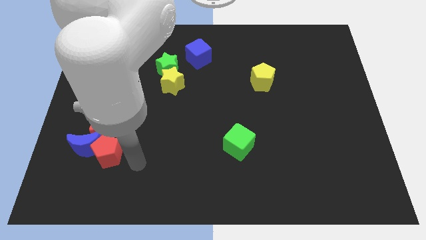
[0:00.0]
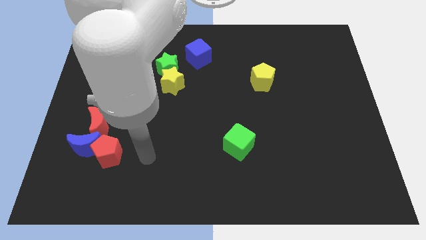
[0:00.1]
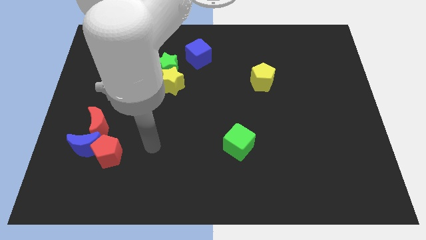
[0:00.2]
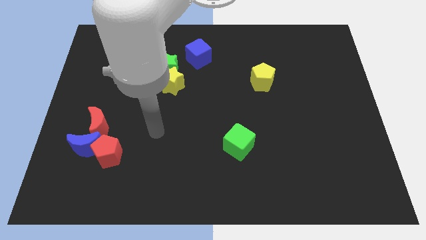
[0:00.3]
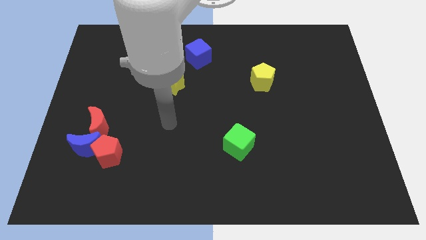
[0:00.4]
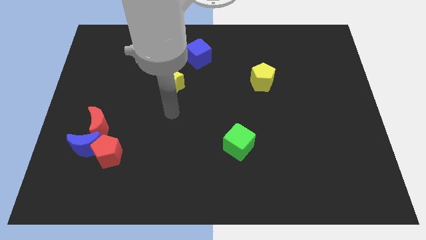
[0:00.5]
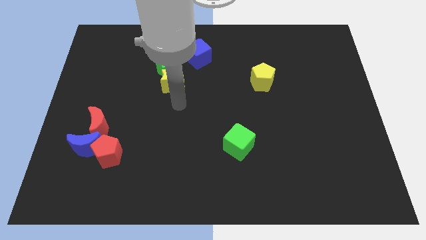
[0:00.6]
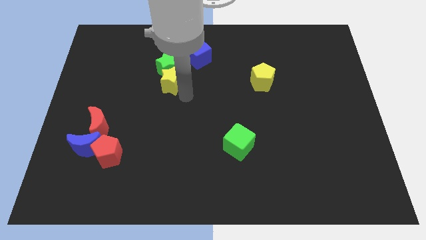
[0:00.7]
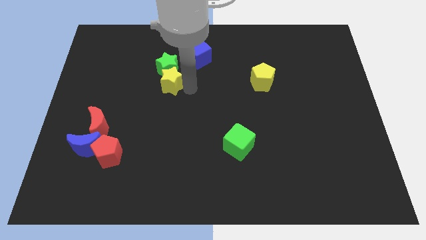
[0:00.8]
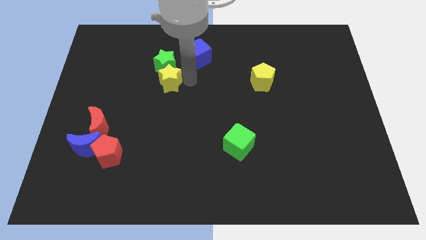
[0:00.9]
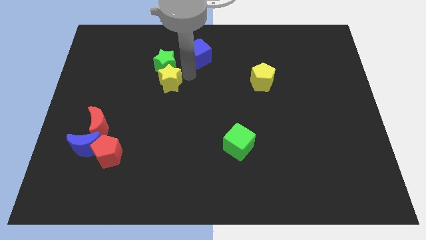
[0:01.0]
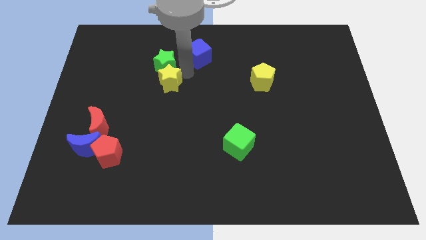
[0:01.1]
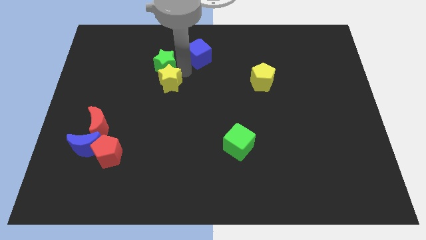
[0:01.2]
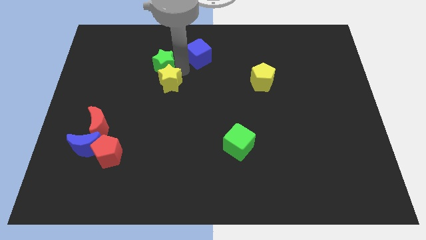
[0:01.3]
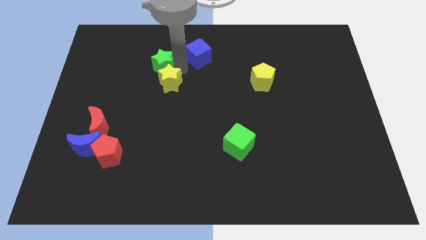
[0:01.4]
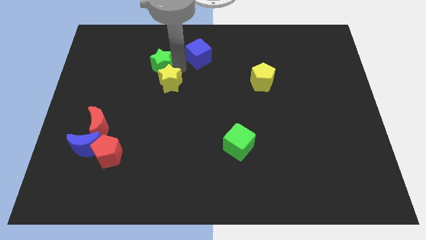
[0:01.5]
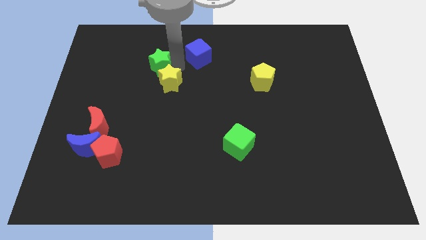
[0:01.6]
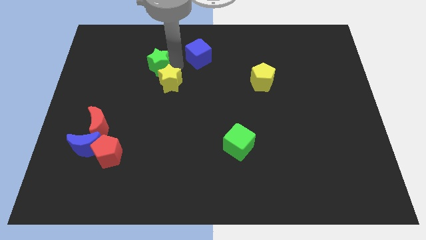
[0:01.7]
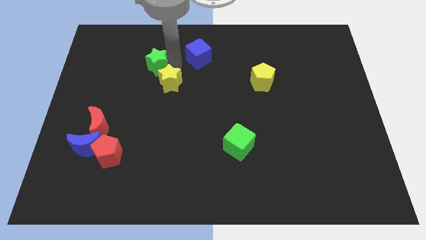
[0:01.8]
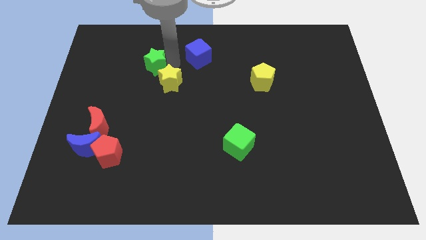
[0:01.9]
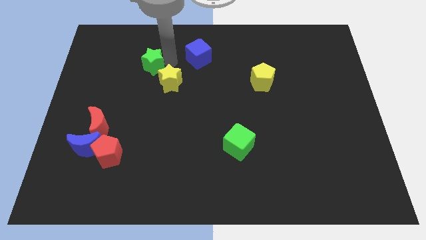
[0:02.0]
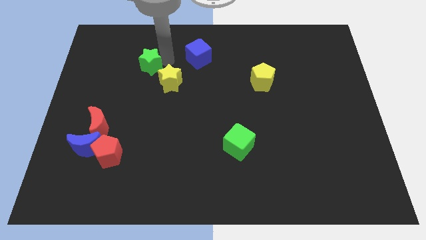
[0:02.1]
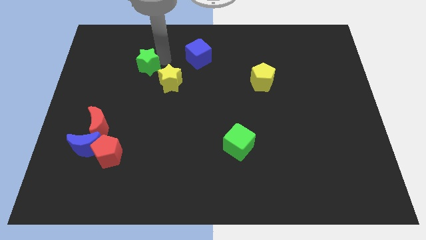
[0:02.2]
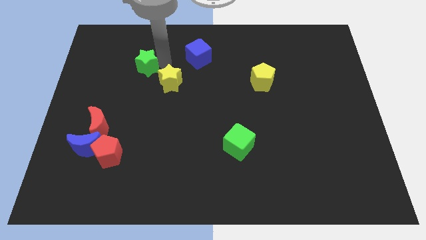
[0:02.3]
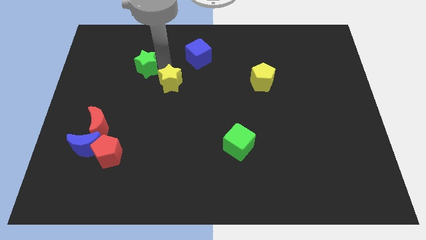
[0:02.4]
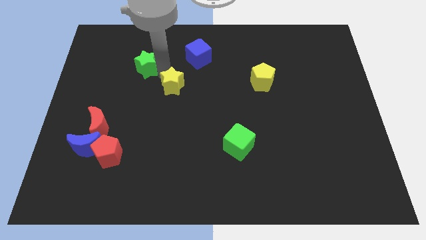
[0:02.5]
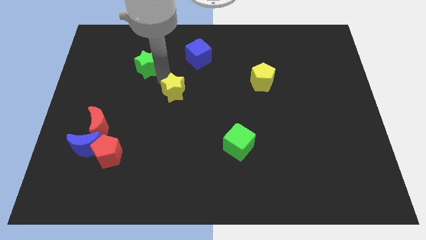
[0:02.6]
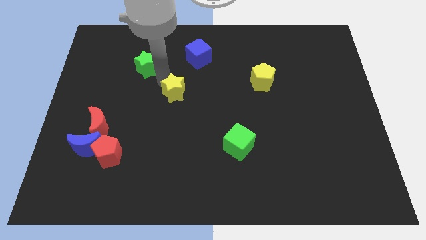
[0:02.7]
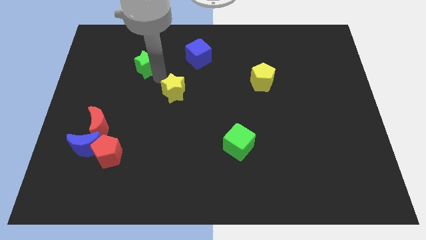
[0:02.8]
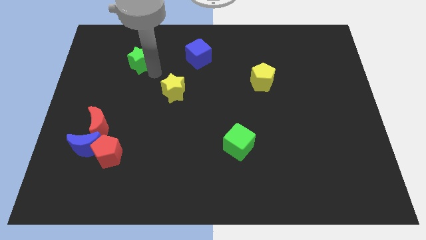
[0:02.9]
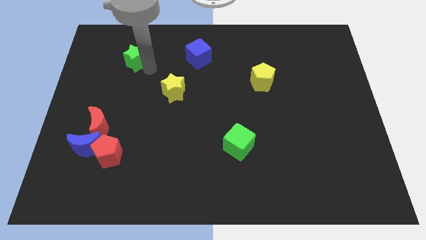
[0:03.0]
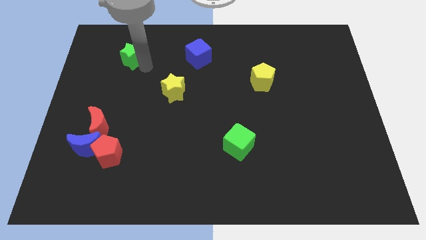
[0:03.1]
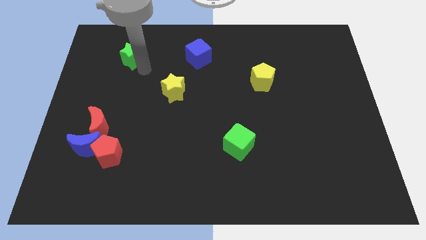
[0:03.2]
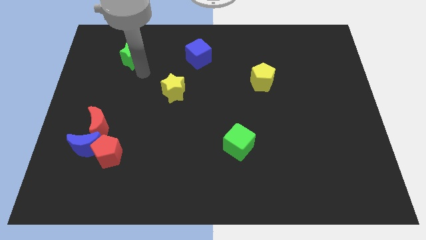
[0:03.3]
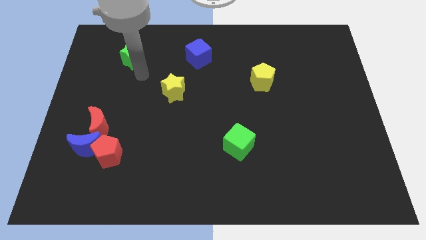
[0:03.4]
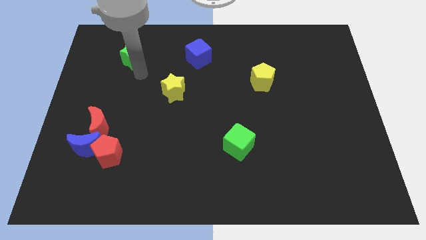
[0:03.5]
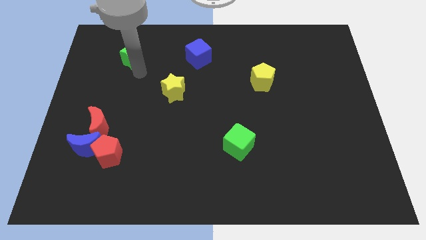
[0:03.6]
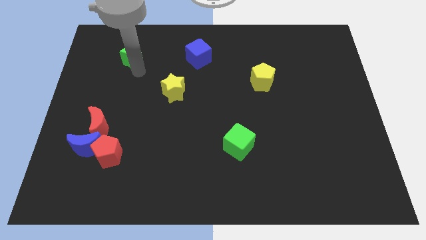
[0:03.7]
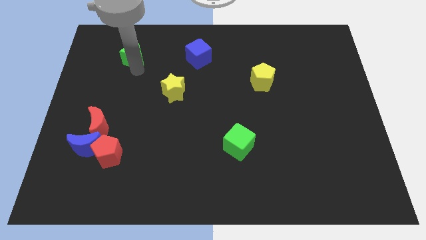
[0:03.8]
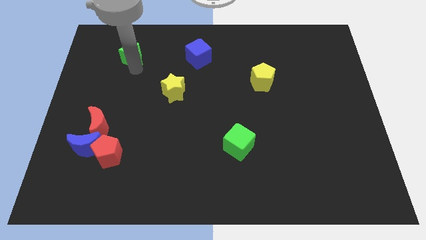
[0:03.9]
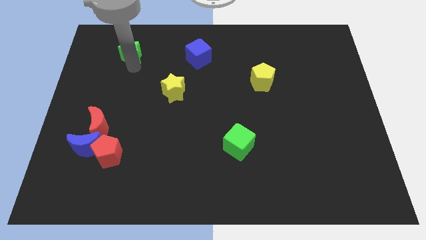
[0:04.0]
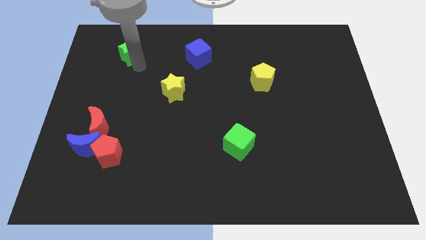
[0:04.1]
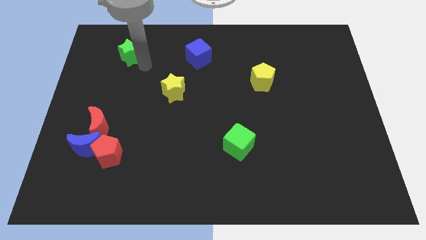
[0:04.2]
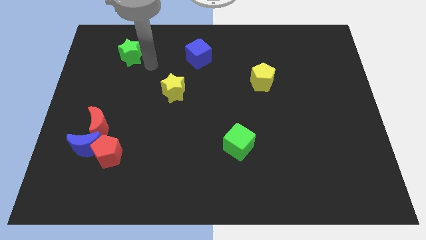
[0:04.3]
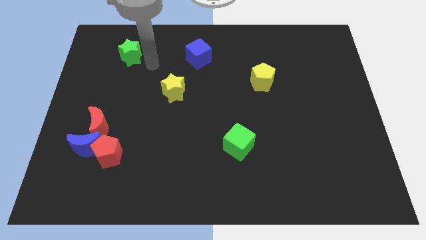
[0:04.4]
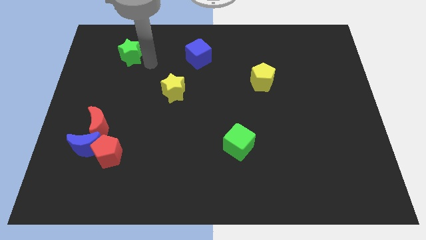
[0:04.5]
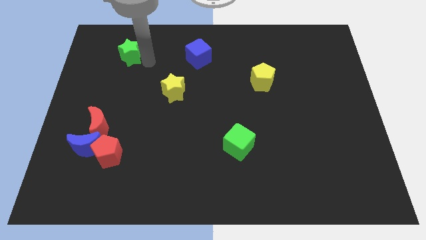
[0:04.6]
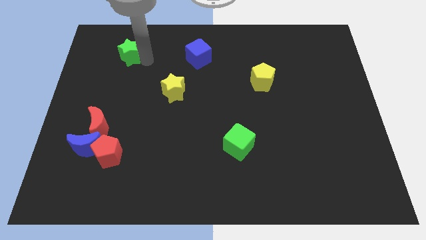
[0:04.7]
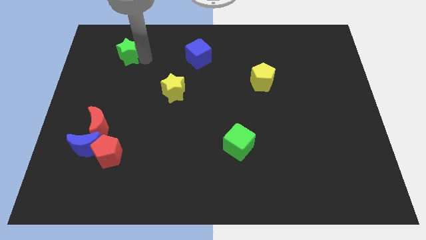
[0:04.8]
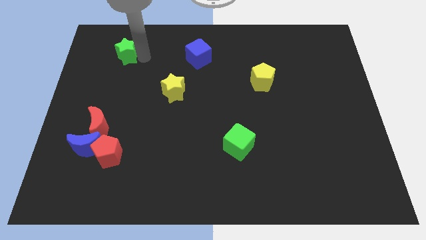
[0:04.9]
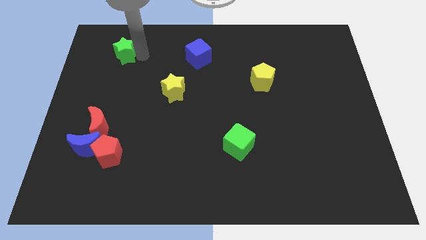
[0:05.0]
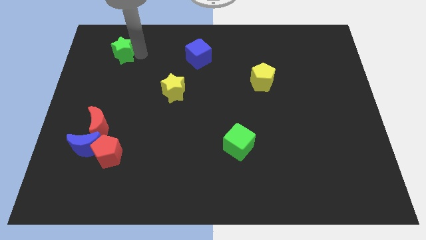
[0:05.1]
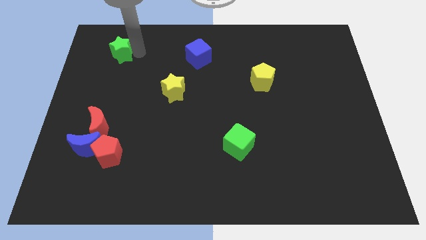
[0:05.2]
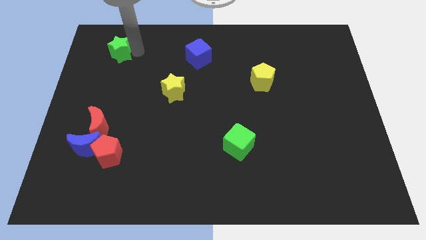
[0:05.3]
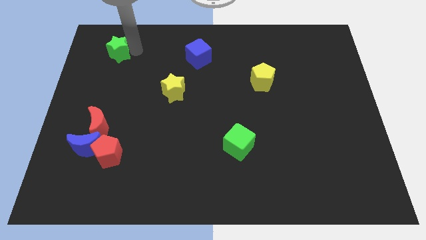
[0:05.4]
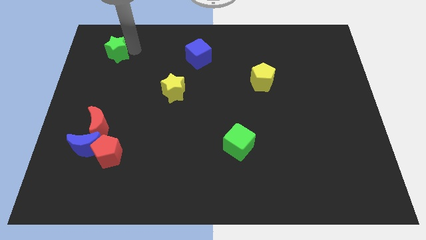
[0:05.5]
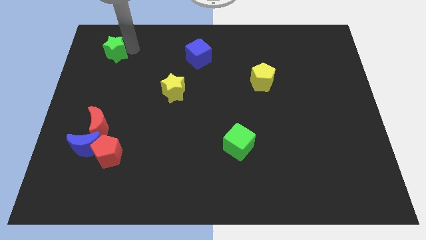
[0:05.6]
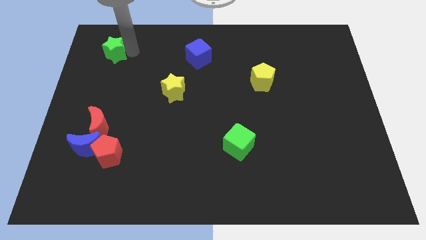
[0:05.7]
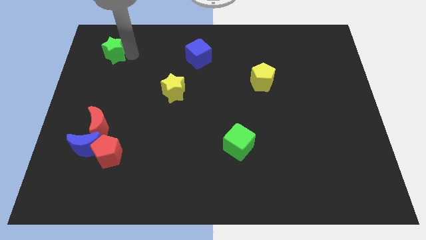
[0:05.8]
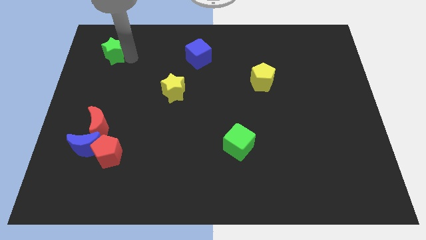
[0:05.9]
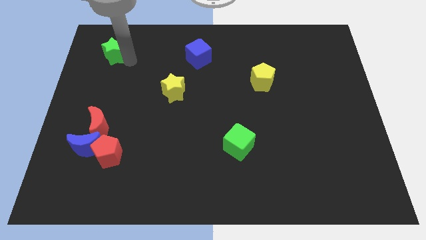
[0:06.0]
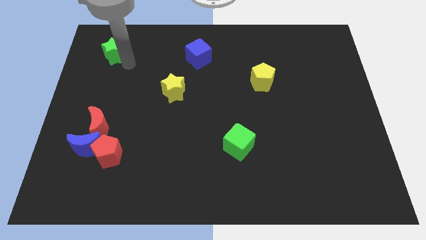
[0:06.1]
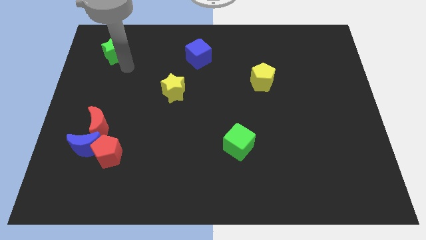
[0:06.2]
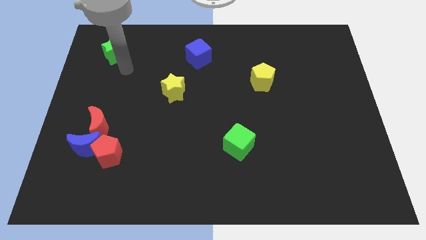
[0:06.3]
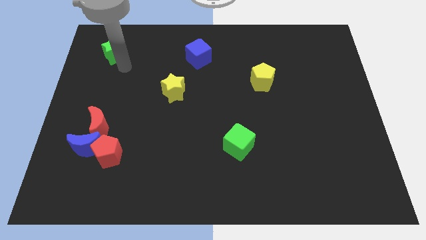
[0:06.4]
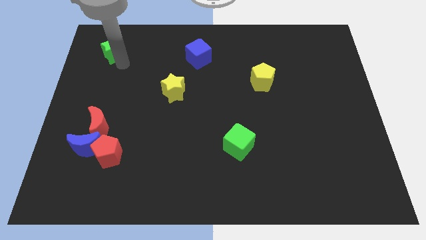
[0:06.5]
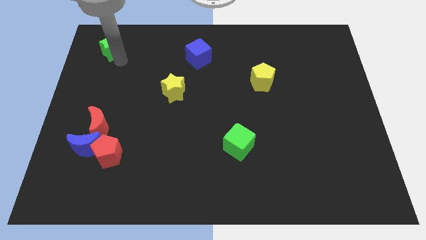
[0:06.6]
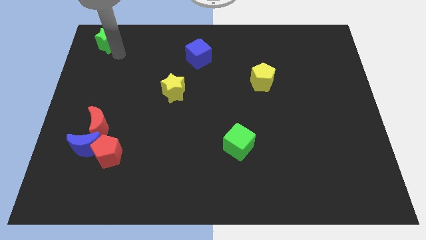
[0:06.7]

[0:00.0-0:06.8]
push the green star to the top left

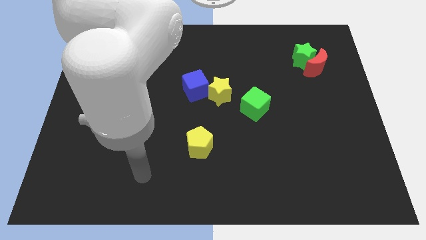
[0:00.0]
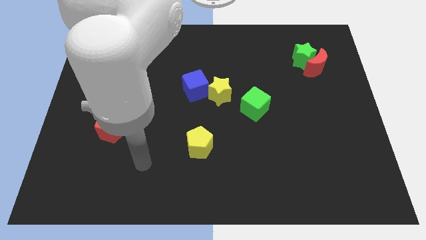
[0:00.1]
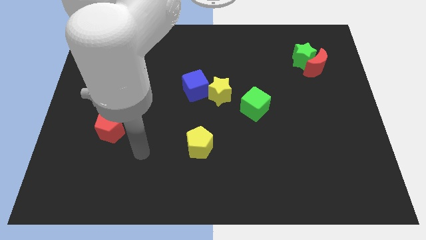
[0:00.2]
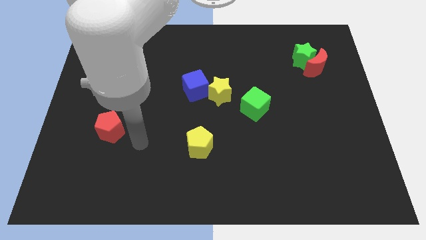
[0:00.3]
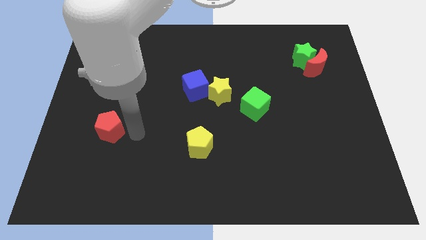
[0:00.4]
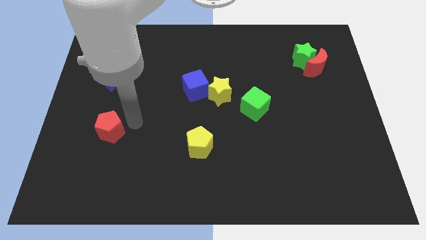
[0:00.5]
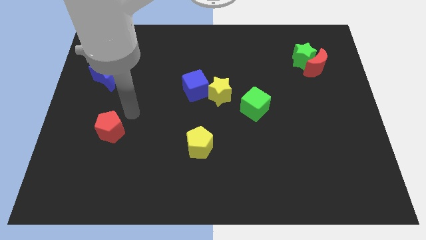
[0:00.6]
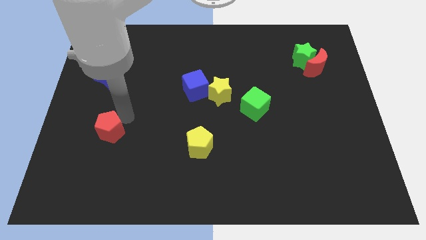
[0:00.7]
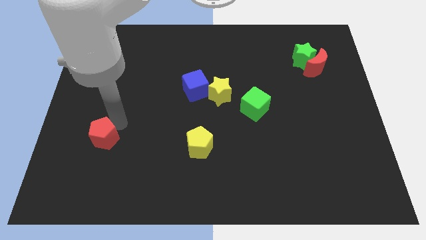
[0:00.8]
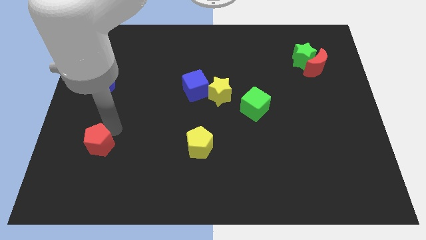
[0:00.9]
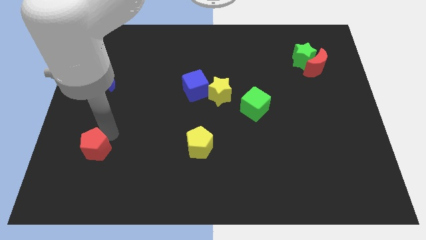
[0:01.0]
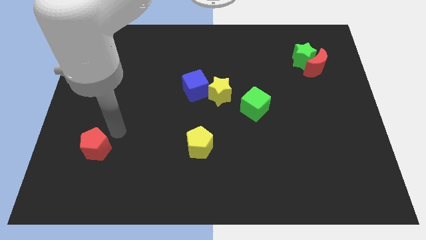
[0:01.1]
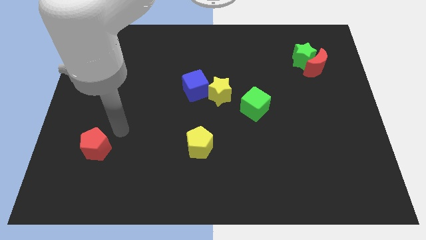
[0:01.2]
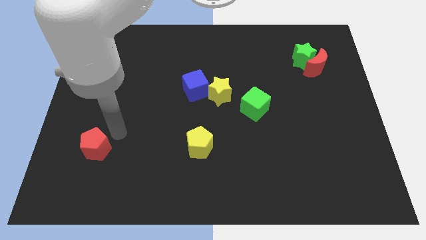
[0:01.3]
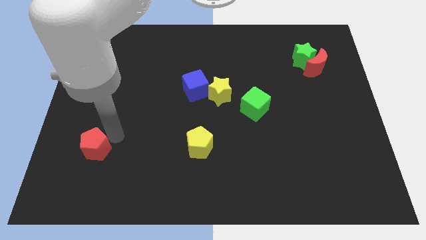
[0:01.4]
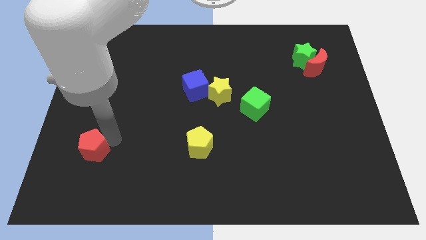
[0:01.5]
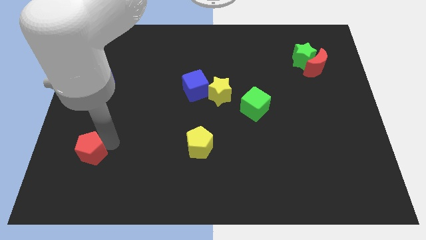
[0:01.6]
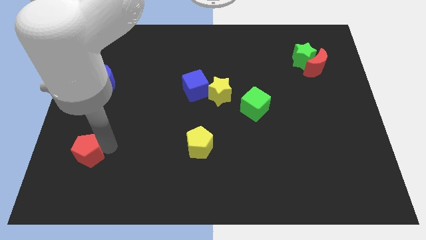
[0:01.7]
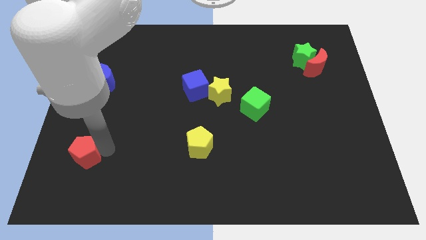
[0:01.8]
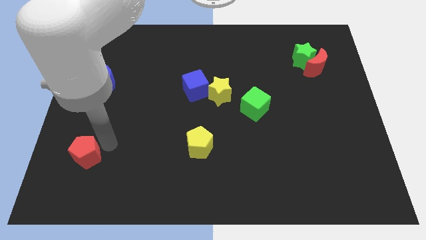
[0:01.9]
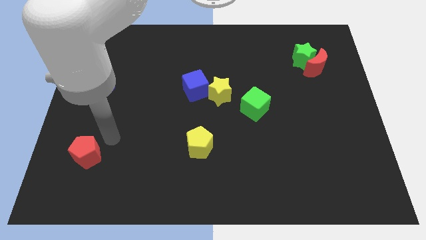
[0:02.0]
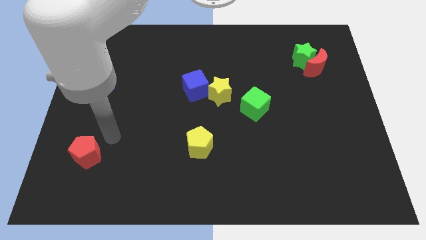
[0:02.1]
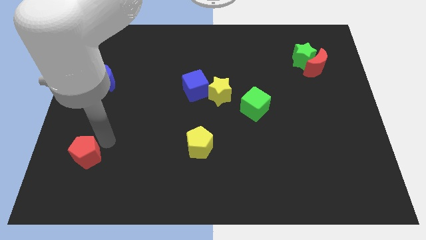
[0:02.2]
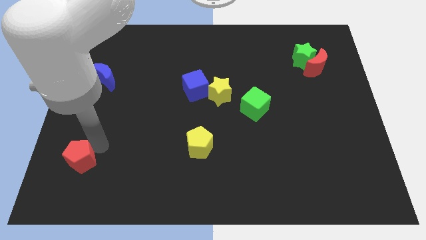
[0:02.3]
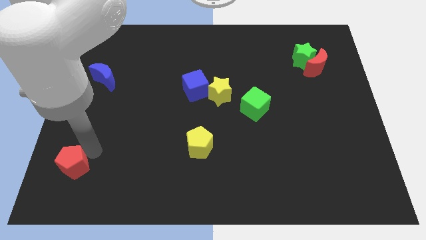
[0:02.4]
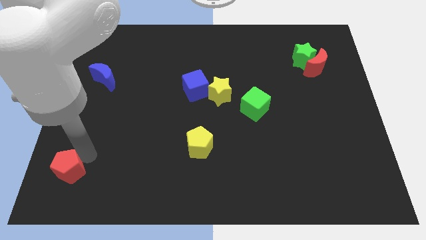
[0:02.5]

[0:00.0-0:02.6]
put the red pentagon to the bottom left
